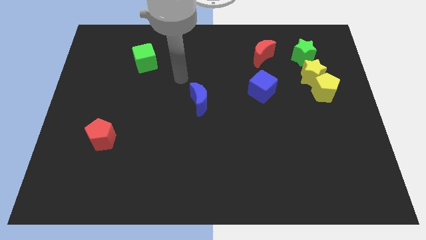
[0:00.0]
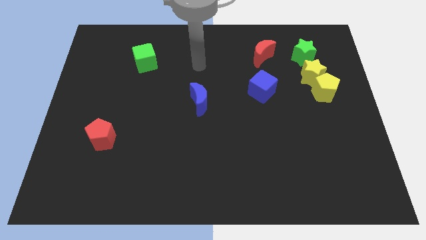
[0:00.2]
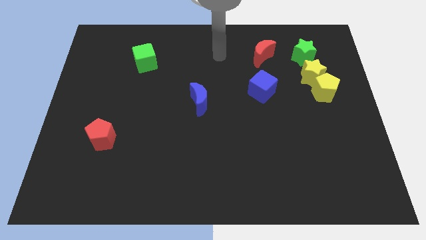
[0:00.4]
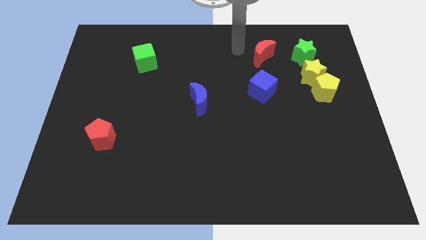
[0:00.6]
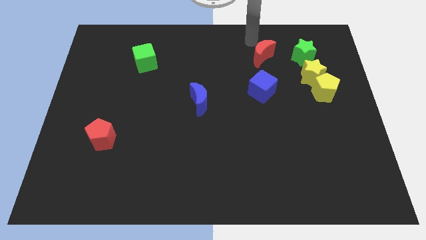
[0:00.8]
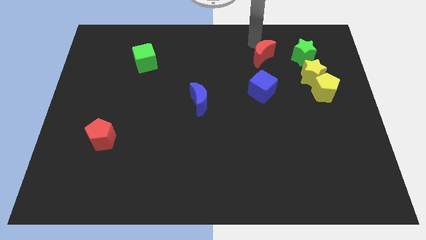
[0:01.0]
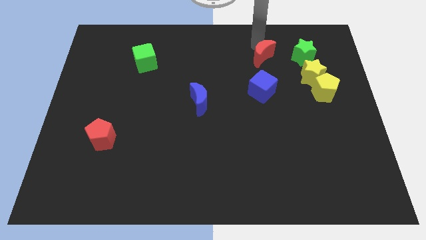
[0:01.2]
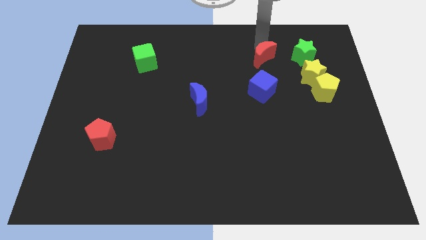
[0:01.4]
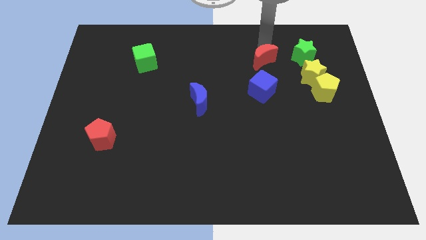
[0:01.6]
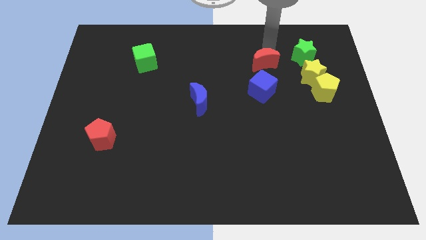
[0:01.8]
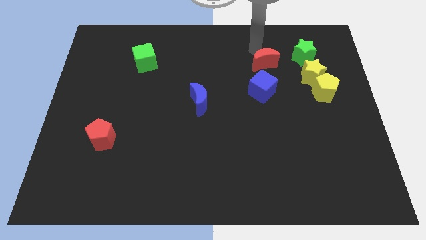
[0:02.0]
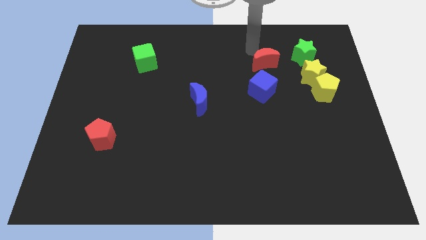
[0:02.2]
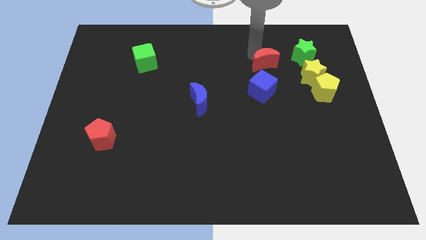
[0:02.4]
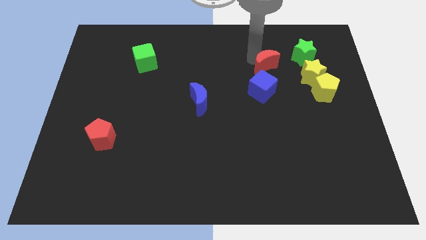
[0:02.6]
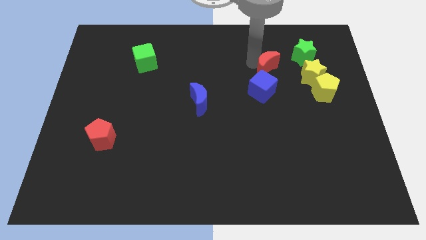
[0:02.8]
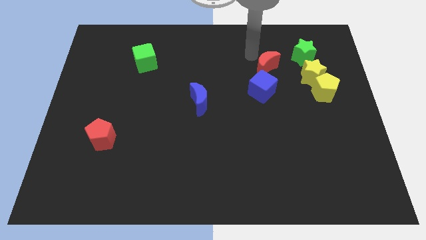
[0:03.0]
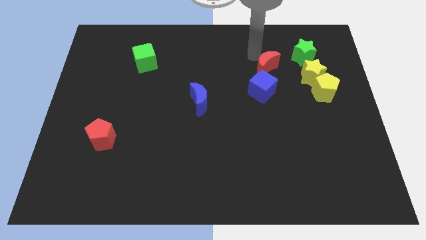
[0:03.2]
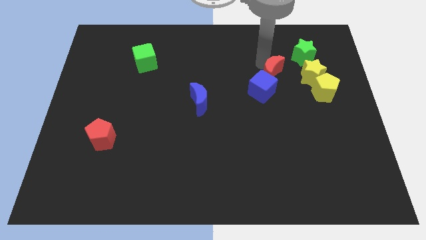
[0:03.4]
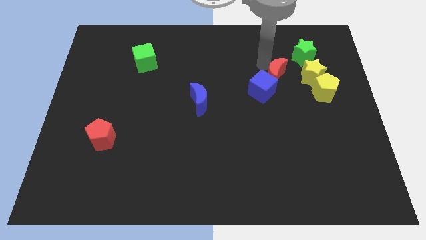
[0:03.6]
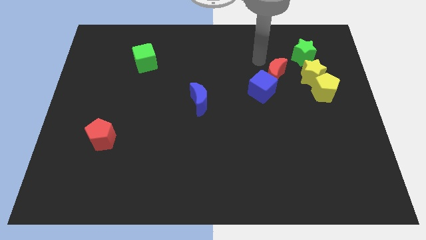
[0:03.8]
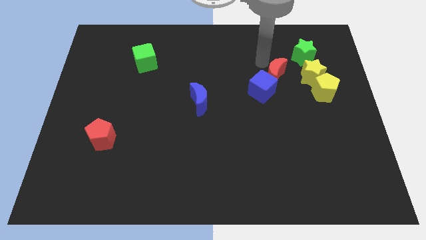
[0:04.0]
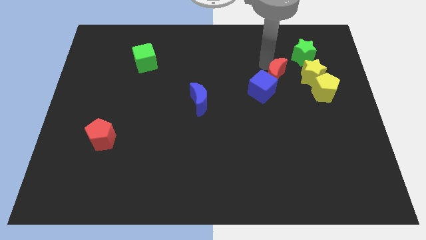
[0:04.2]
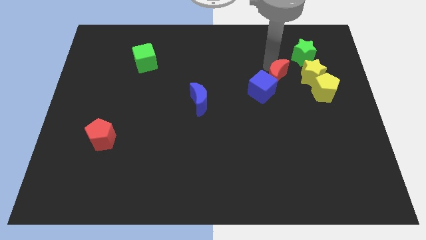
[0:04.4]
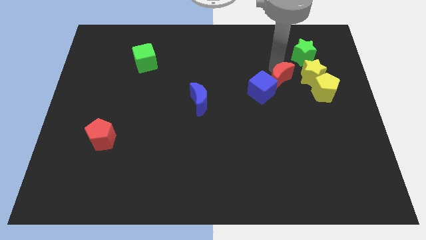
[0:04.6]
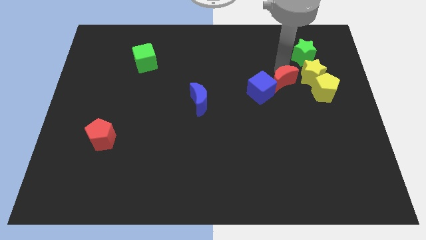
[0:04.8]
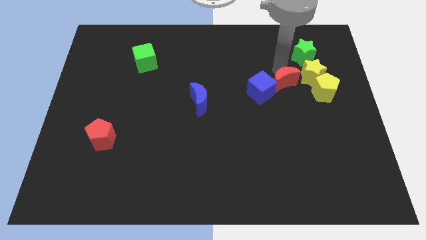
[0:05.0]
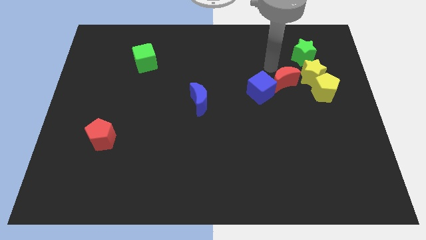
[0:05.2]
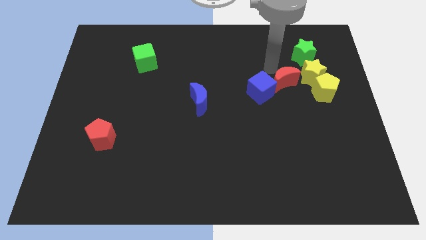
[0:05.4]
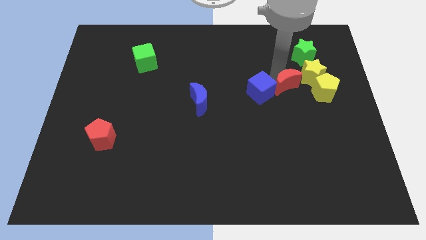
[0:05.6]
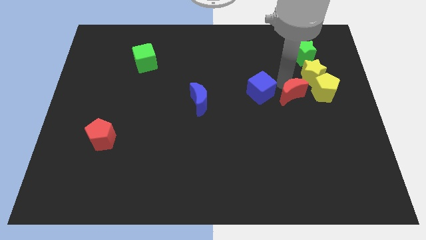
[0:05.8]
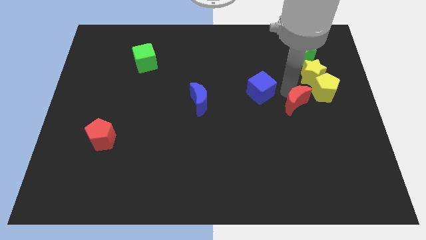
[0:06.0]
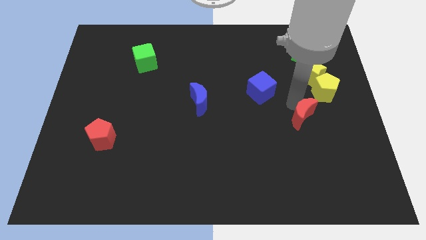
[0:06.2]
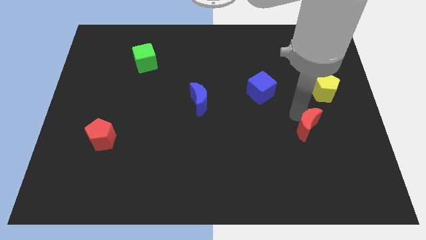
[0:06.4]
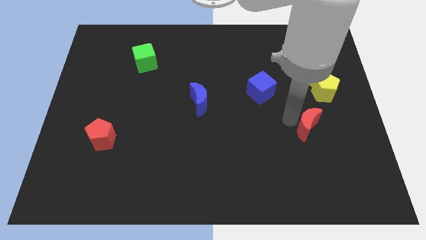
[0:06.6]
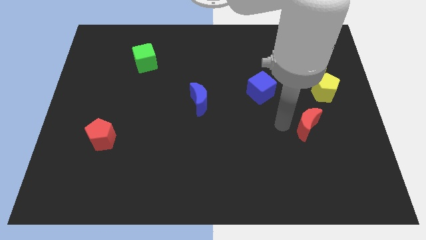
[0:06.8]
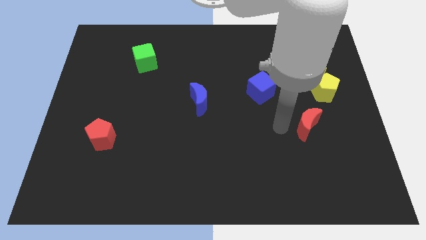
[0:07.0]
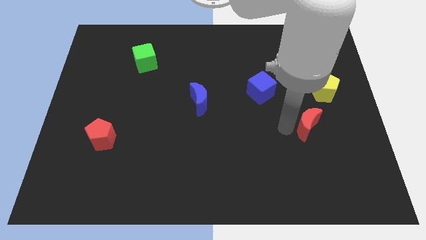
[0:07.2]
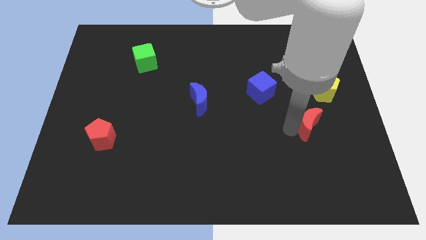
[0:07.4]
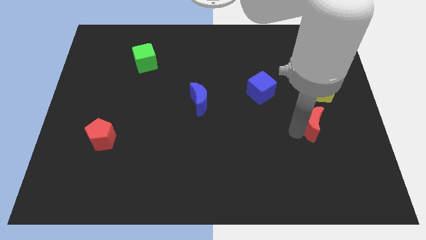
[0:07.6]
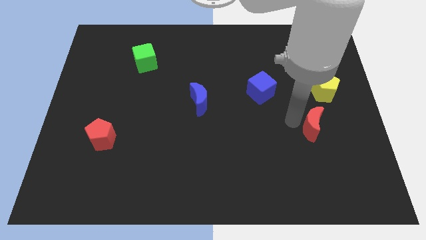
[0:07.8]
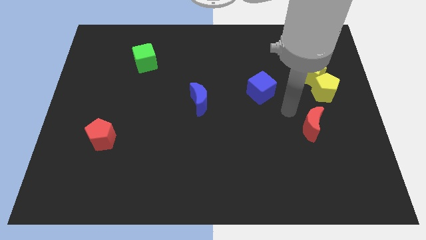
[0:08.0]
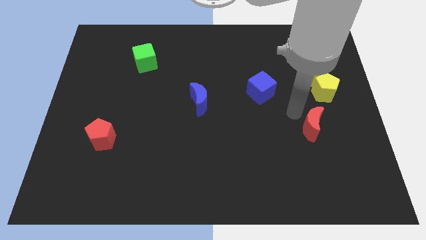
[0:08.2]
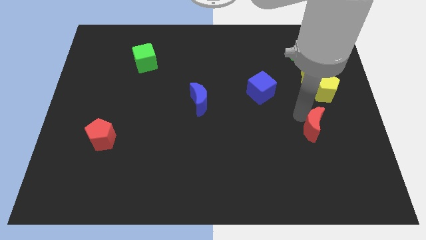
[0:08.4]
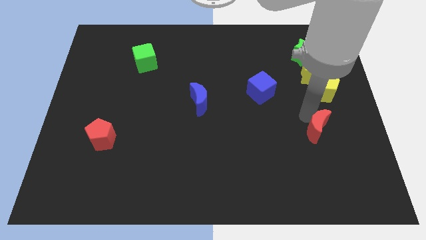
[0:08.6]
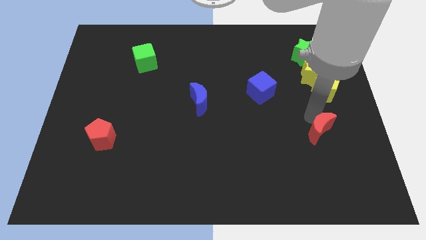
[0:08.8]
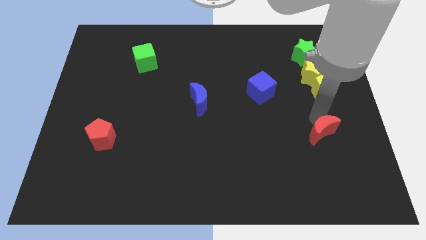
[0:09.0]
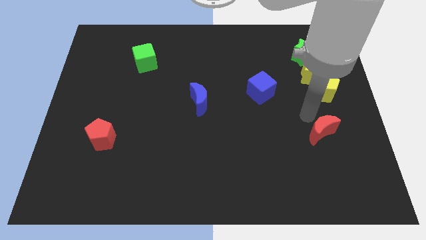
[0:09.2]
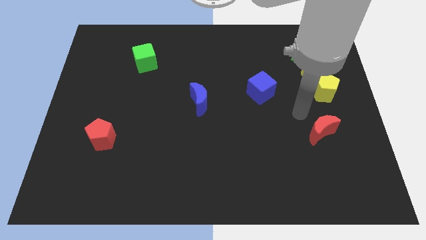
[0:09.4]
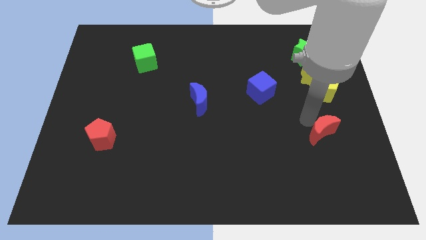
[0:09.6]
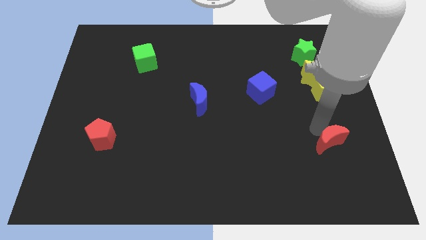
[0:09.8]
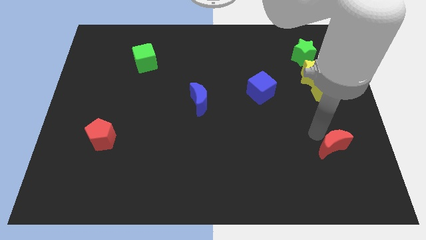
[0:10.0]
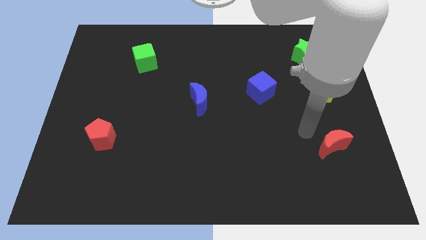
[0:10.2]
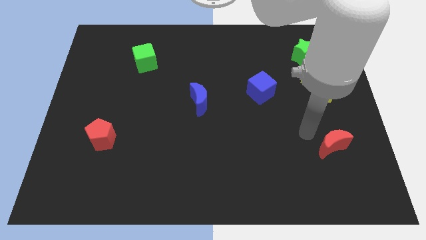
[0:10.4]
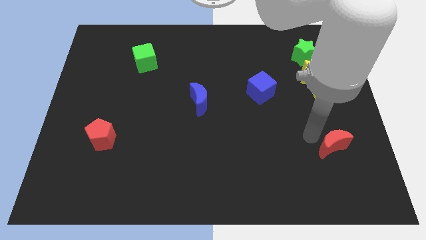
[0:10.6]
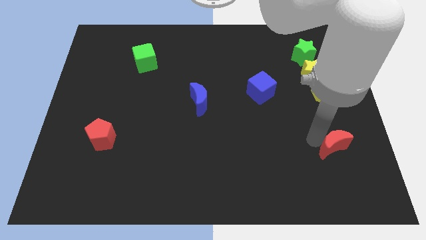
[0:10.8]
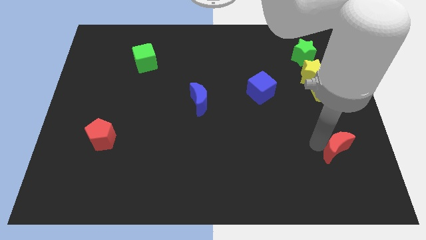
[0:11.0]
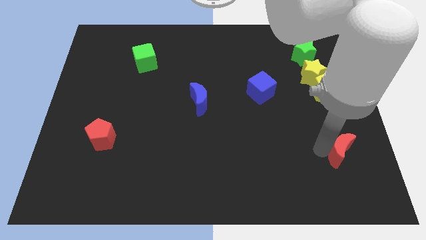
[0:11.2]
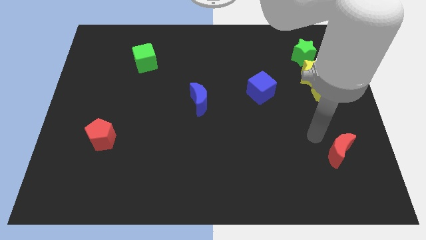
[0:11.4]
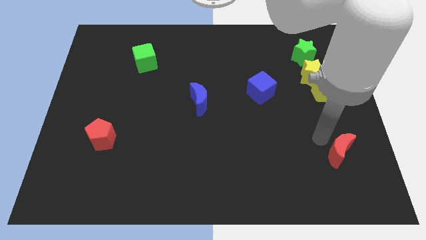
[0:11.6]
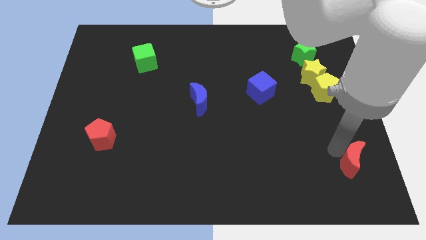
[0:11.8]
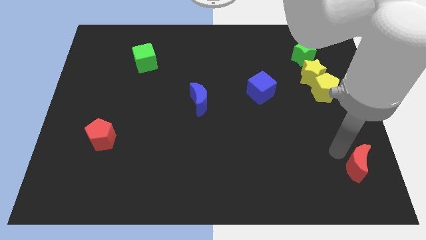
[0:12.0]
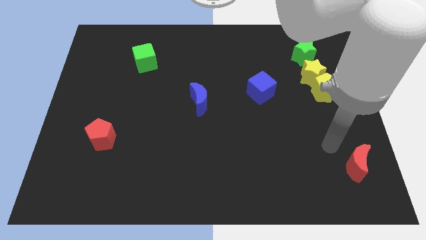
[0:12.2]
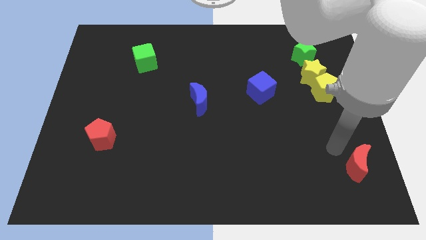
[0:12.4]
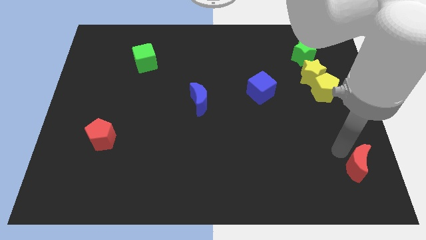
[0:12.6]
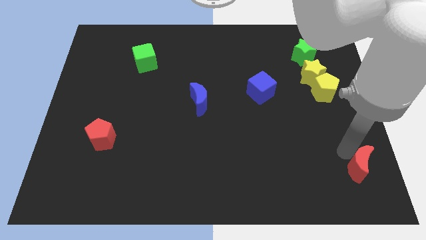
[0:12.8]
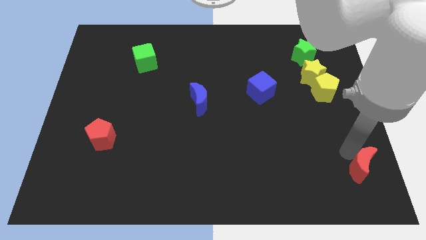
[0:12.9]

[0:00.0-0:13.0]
push the red moon to the lower right corner
